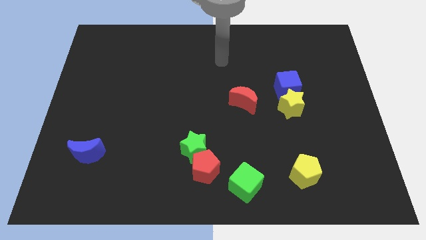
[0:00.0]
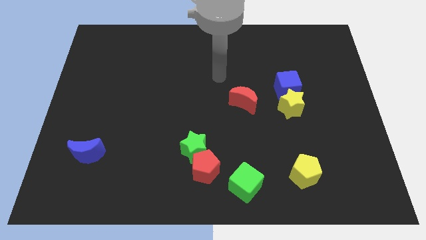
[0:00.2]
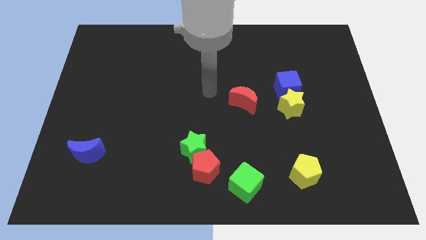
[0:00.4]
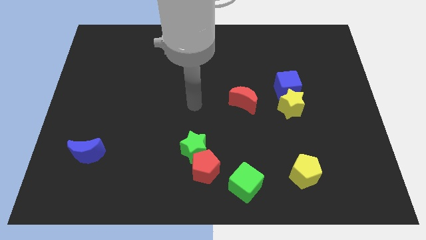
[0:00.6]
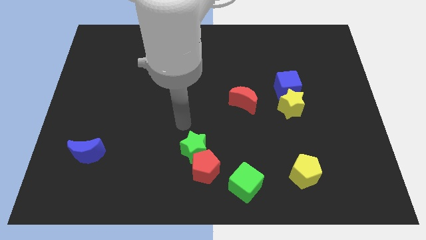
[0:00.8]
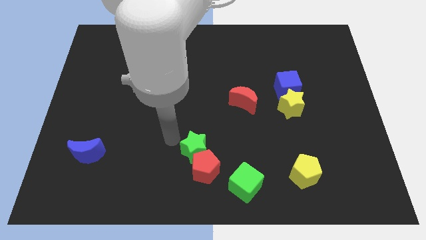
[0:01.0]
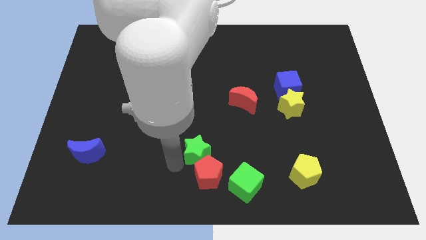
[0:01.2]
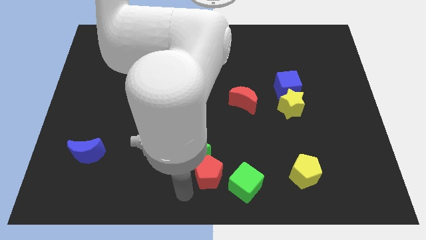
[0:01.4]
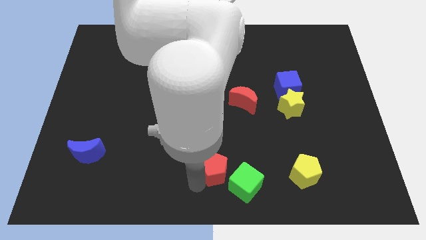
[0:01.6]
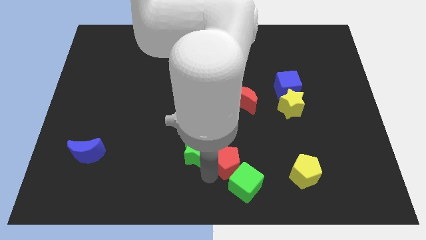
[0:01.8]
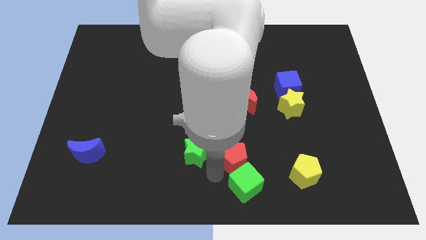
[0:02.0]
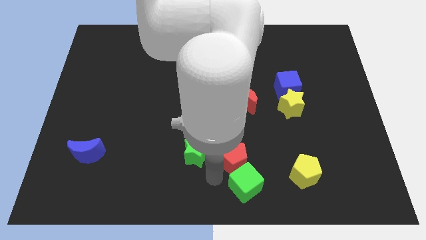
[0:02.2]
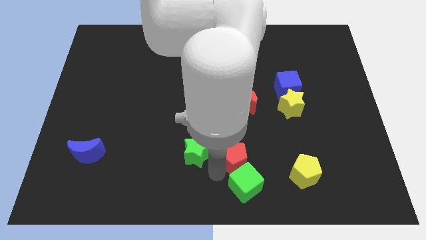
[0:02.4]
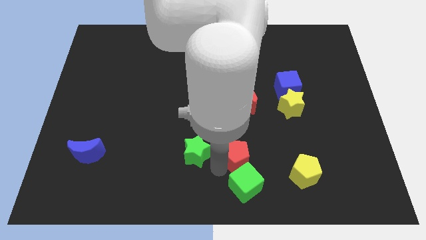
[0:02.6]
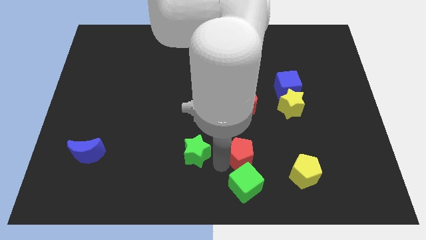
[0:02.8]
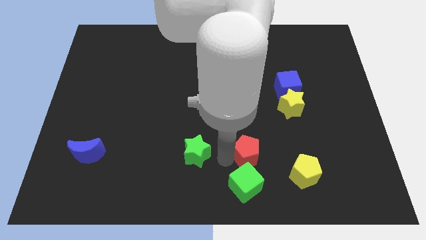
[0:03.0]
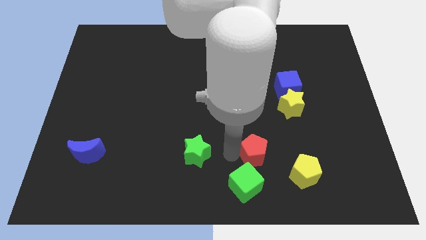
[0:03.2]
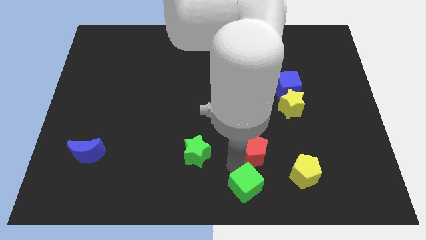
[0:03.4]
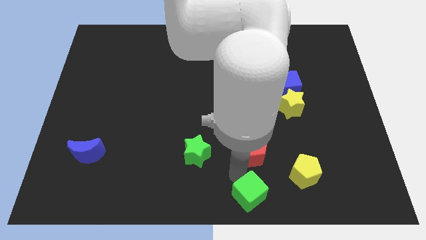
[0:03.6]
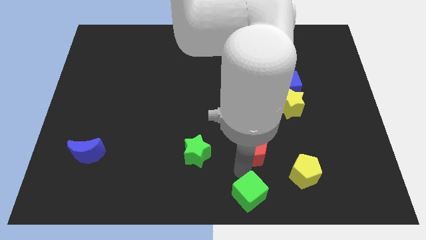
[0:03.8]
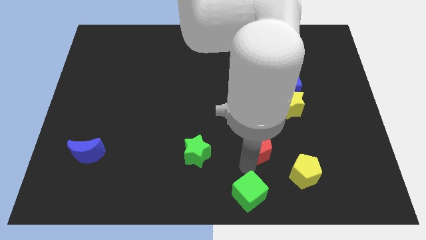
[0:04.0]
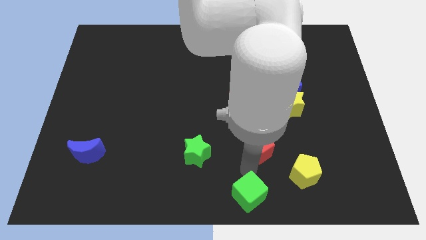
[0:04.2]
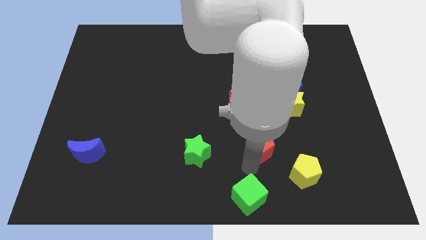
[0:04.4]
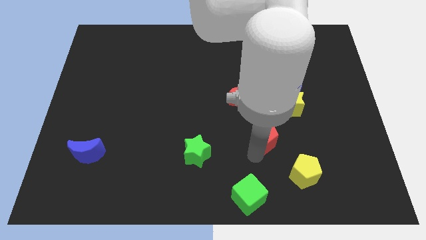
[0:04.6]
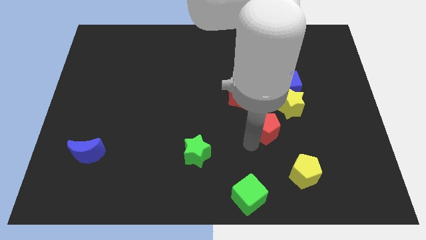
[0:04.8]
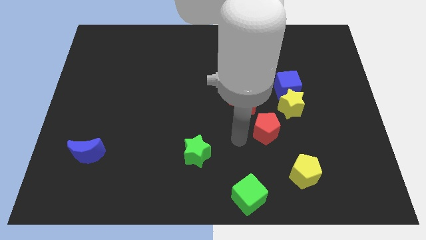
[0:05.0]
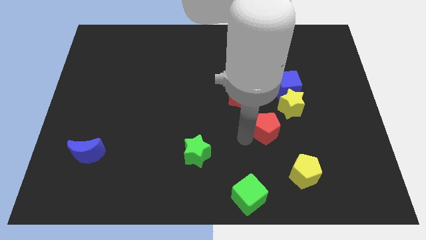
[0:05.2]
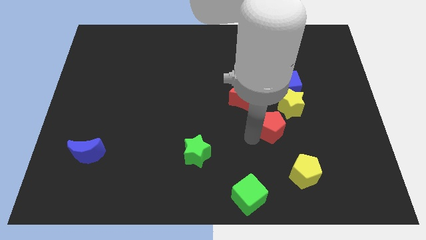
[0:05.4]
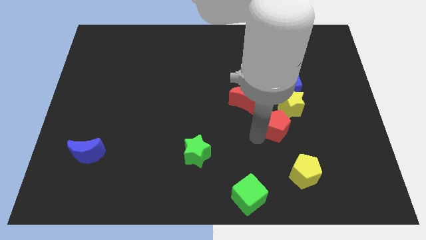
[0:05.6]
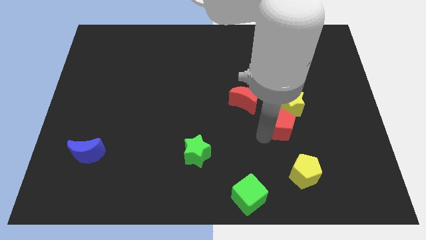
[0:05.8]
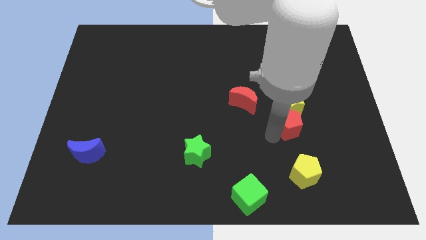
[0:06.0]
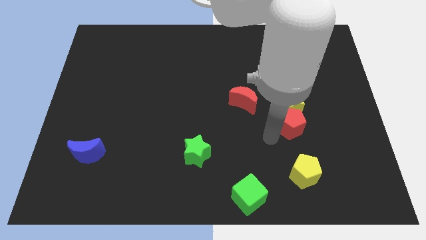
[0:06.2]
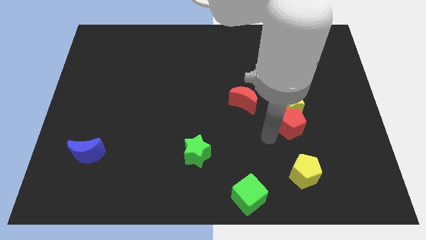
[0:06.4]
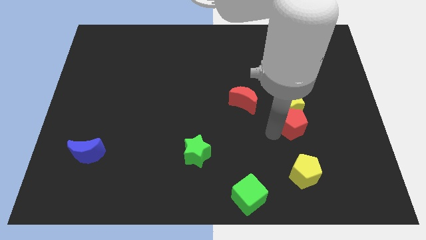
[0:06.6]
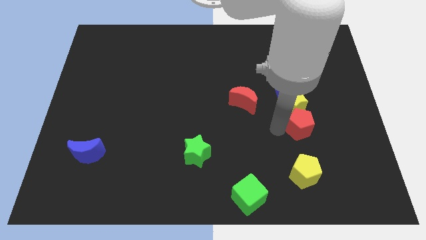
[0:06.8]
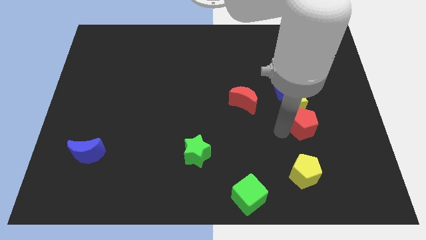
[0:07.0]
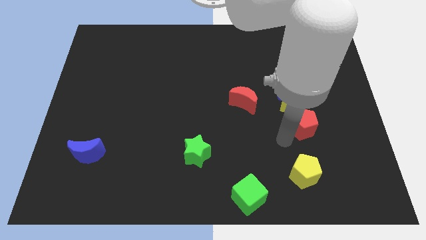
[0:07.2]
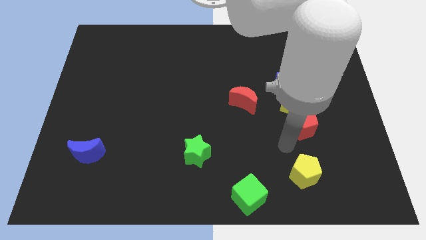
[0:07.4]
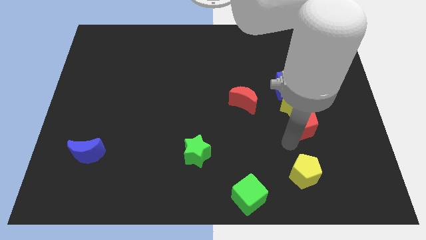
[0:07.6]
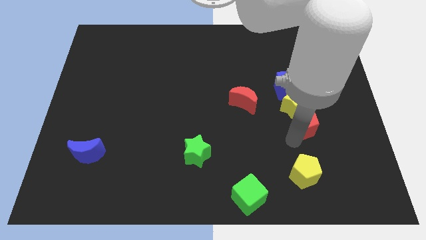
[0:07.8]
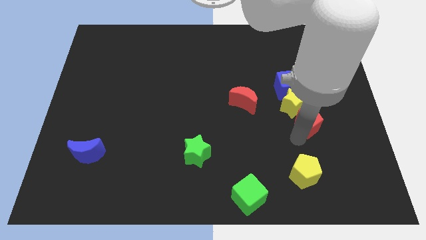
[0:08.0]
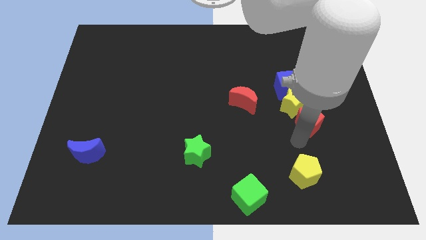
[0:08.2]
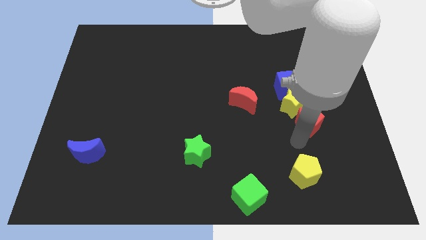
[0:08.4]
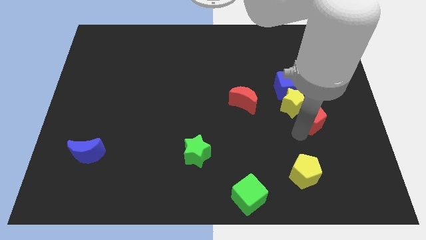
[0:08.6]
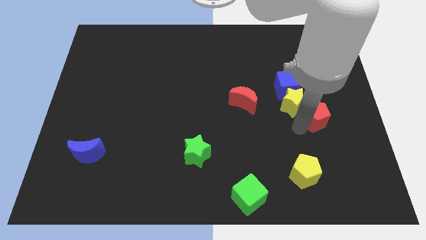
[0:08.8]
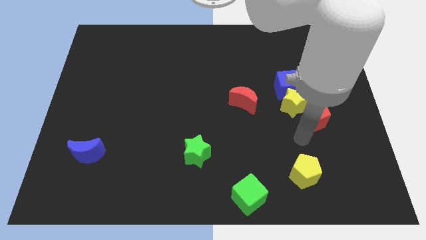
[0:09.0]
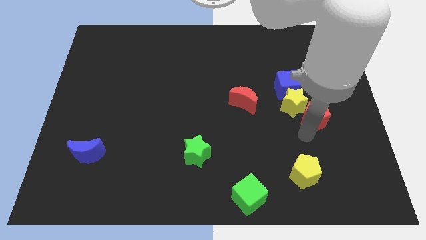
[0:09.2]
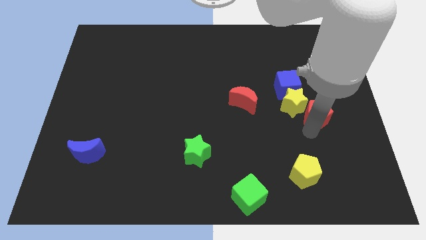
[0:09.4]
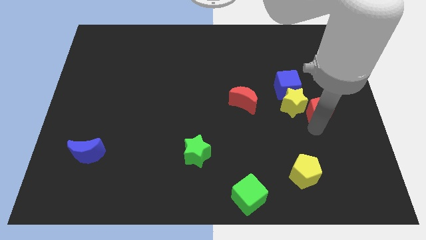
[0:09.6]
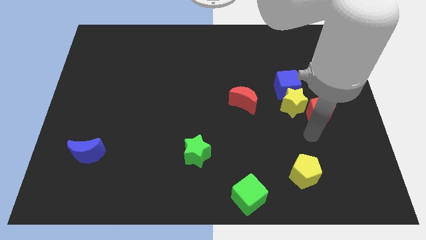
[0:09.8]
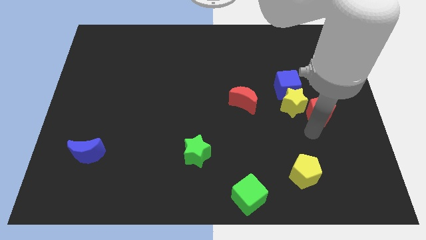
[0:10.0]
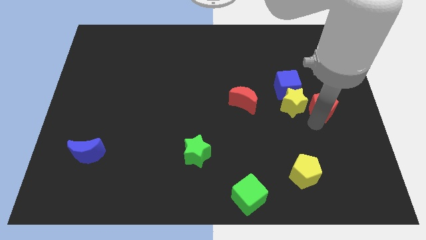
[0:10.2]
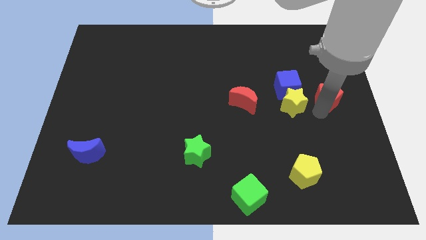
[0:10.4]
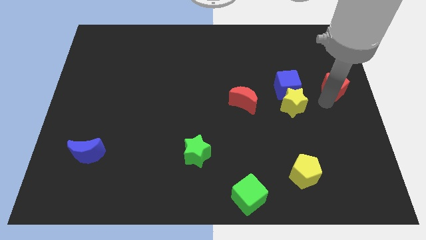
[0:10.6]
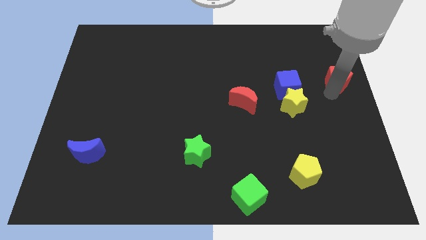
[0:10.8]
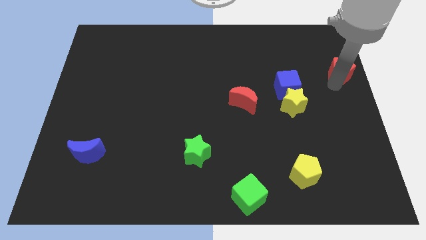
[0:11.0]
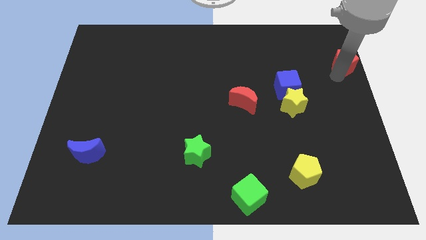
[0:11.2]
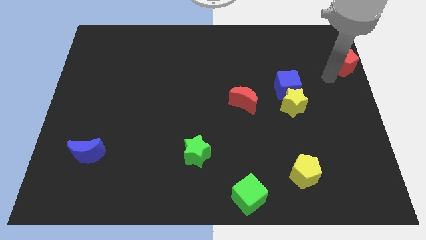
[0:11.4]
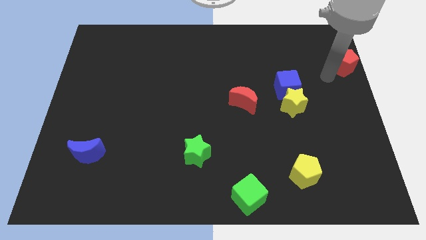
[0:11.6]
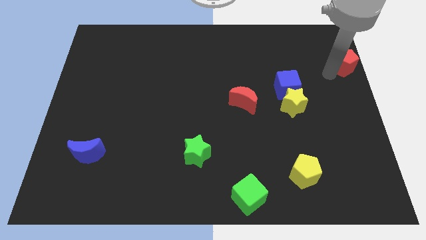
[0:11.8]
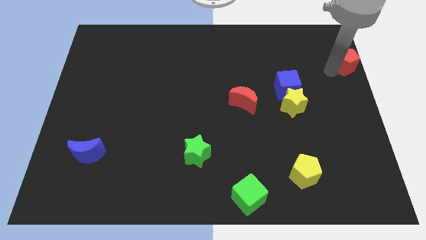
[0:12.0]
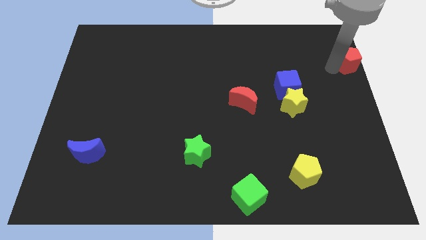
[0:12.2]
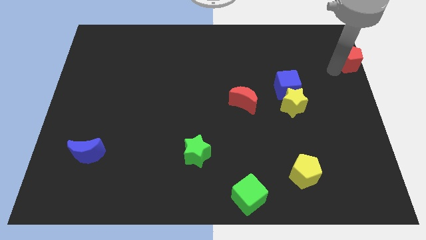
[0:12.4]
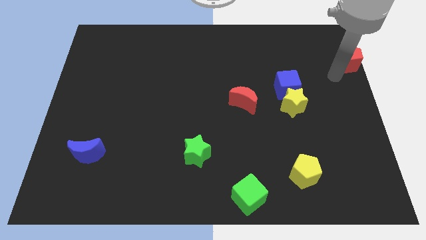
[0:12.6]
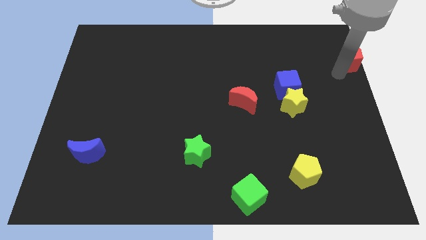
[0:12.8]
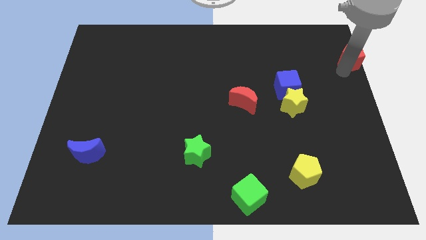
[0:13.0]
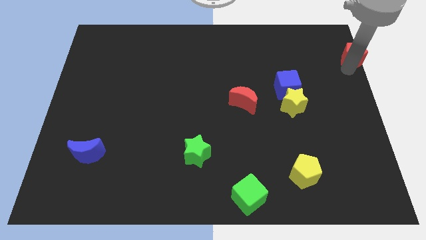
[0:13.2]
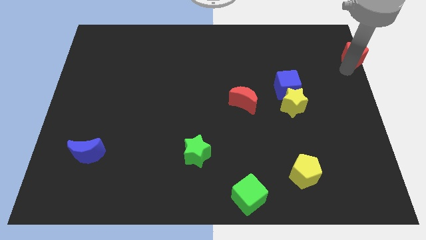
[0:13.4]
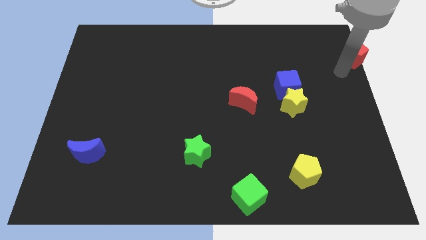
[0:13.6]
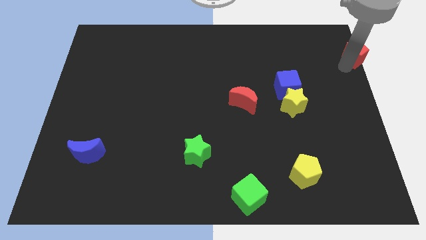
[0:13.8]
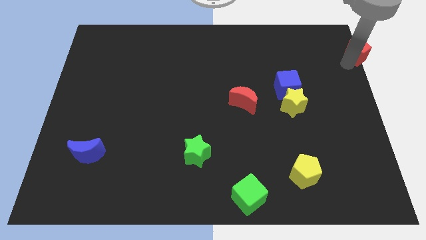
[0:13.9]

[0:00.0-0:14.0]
move the red pentagon to the top right

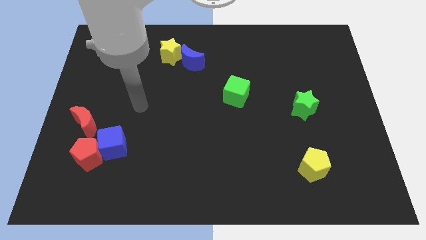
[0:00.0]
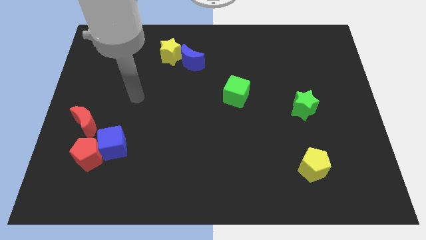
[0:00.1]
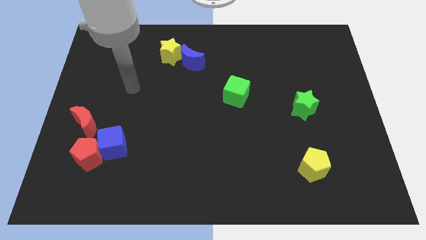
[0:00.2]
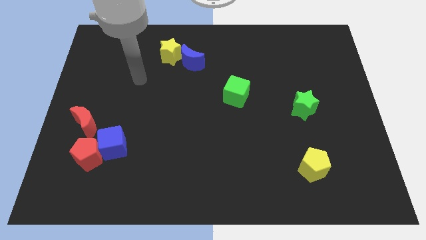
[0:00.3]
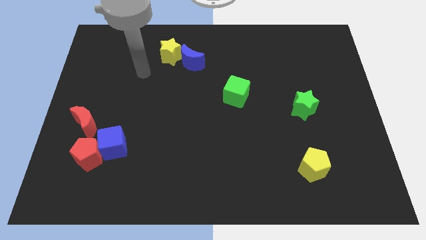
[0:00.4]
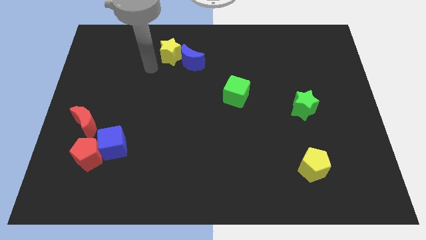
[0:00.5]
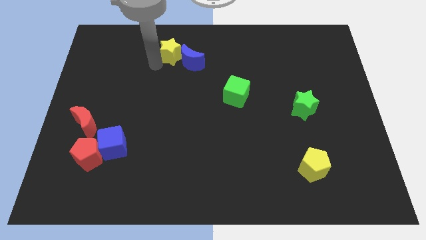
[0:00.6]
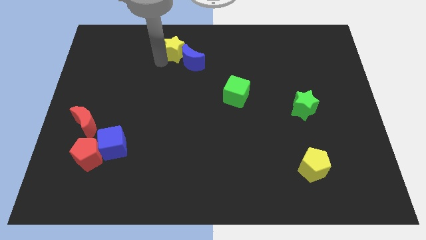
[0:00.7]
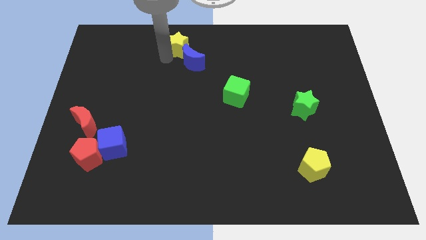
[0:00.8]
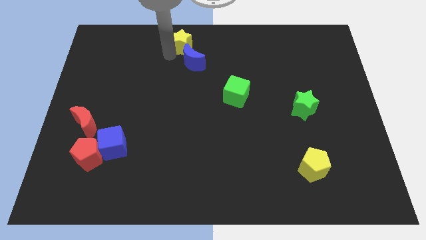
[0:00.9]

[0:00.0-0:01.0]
push the yellow star to the towards your base
